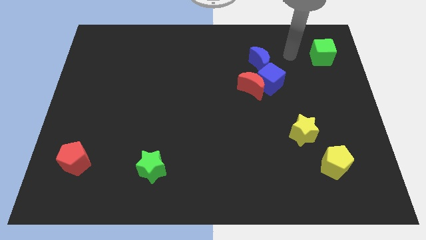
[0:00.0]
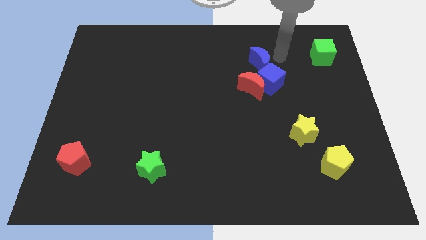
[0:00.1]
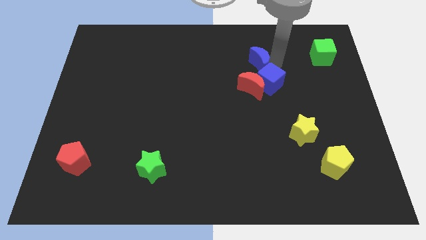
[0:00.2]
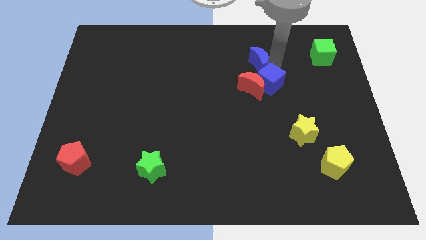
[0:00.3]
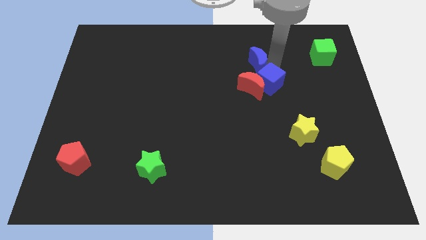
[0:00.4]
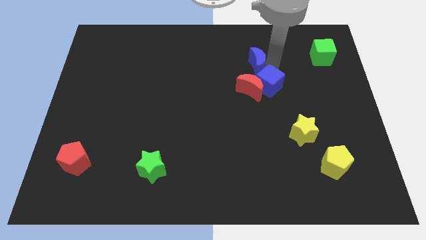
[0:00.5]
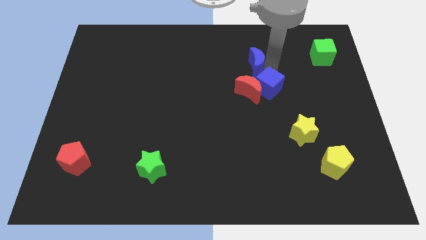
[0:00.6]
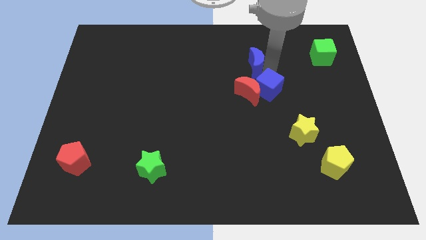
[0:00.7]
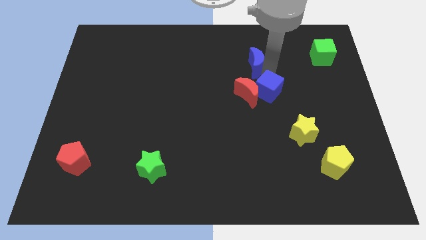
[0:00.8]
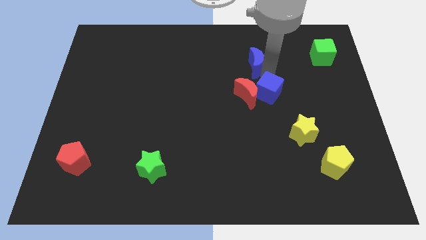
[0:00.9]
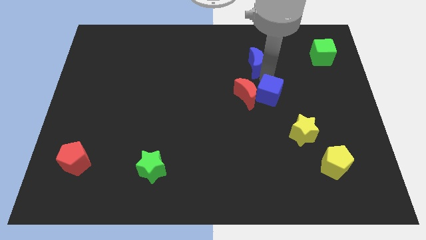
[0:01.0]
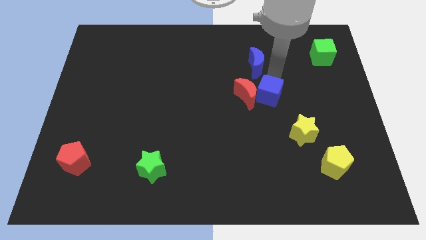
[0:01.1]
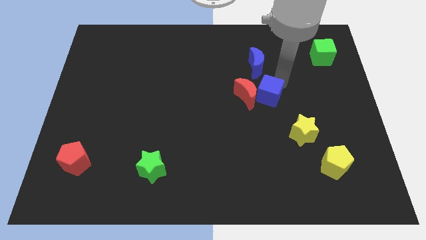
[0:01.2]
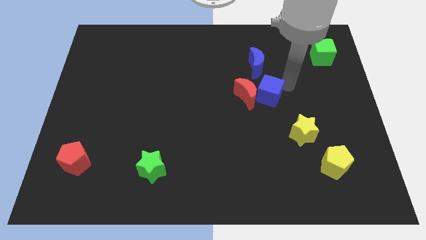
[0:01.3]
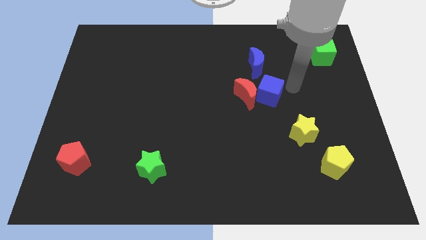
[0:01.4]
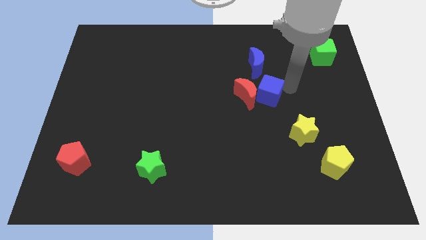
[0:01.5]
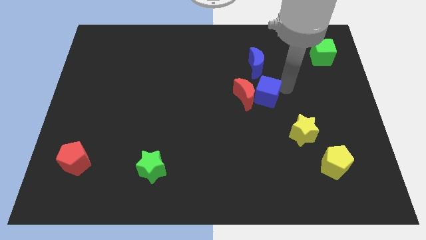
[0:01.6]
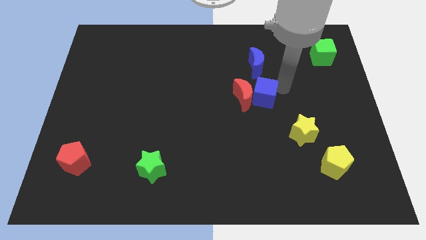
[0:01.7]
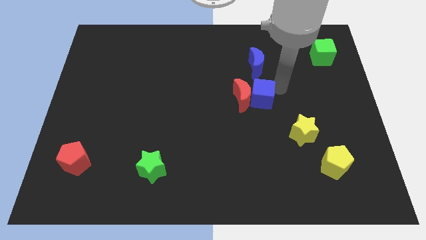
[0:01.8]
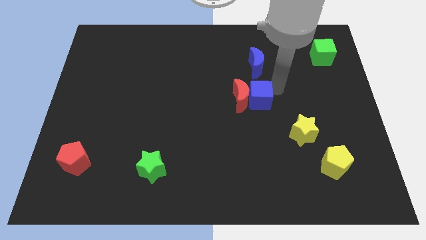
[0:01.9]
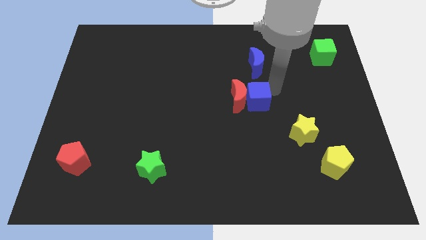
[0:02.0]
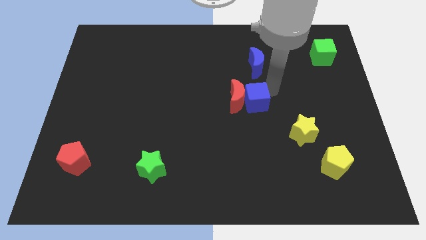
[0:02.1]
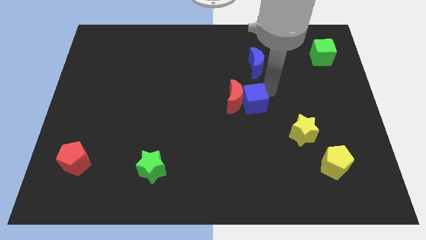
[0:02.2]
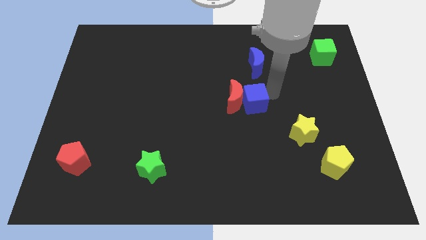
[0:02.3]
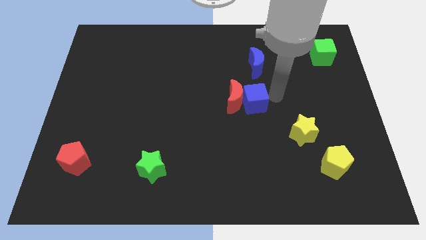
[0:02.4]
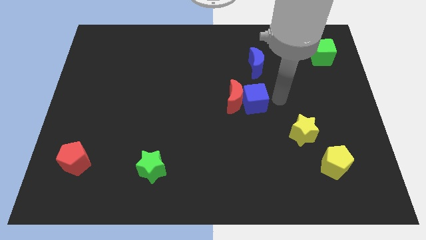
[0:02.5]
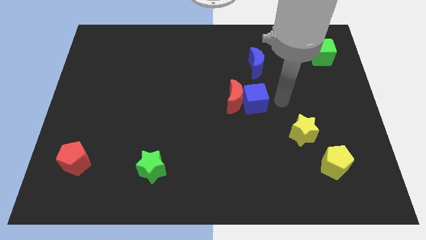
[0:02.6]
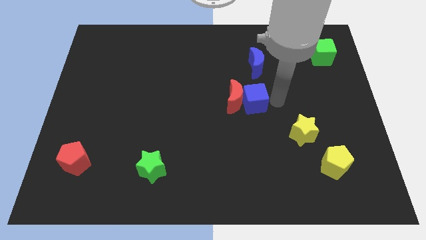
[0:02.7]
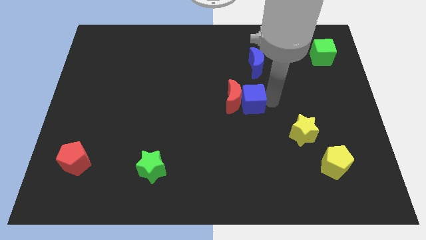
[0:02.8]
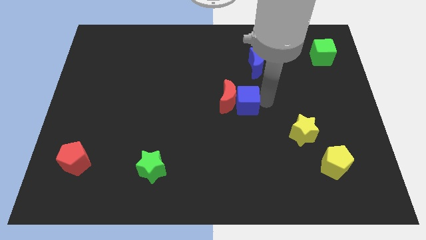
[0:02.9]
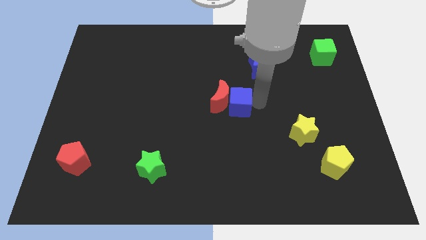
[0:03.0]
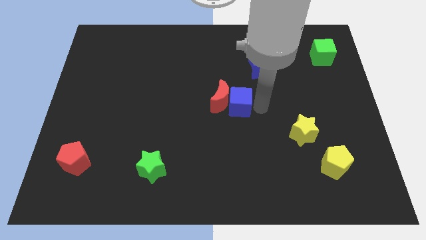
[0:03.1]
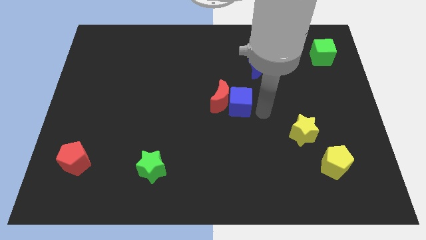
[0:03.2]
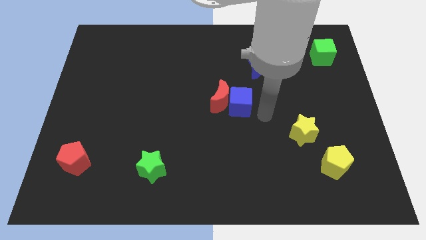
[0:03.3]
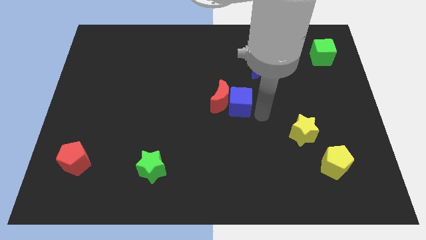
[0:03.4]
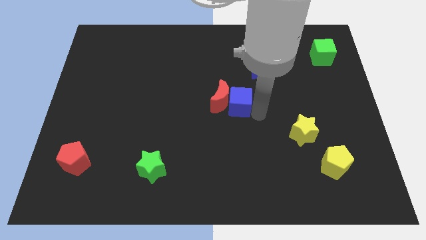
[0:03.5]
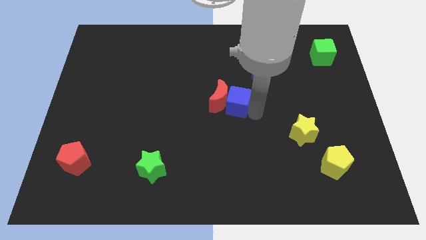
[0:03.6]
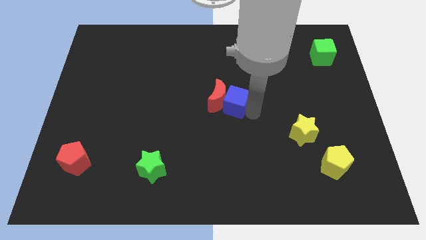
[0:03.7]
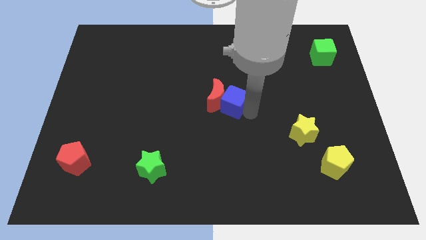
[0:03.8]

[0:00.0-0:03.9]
slightly slide the blue cube to the left

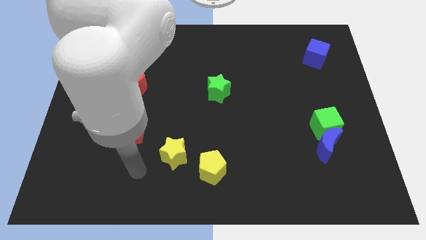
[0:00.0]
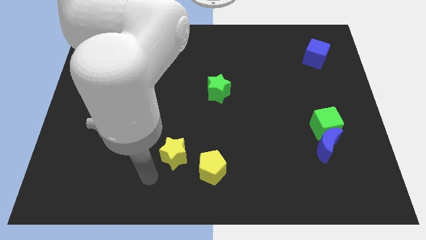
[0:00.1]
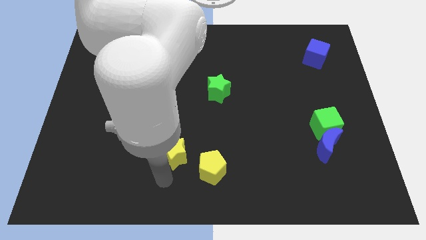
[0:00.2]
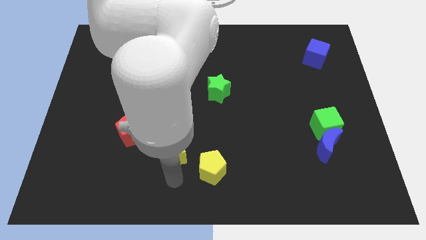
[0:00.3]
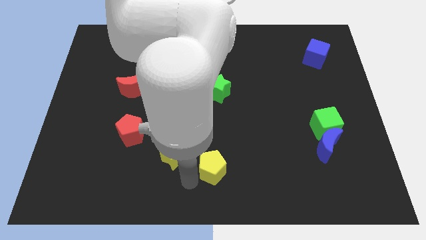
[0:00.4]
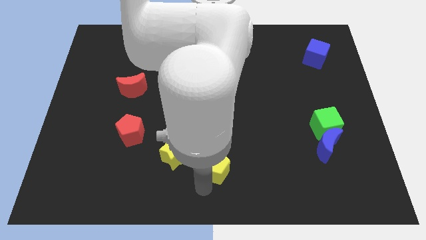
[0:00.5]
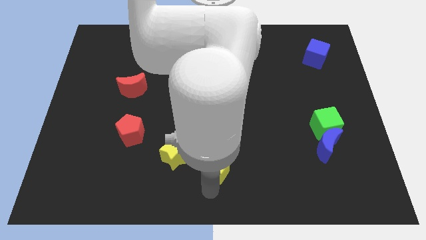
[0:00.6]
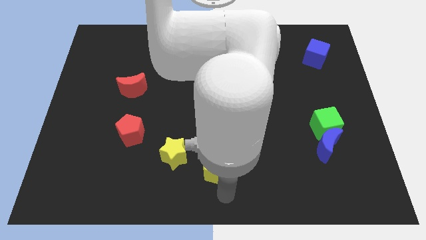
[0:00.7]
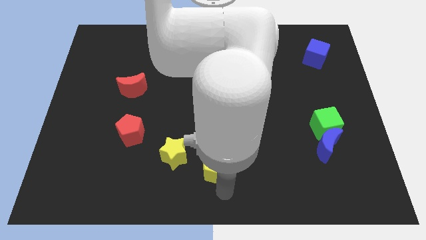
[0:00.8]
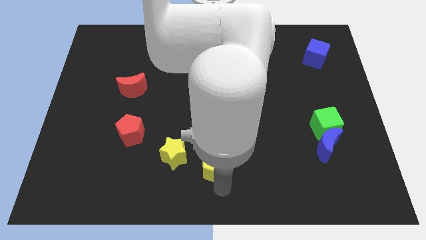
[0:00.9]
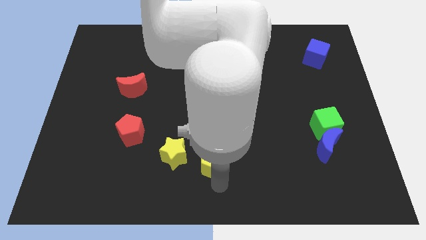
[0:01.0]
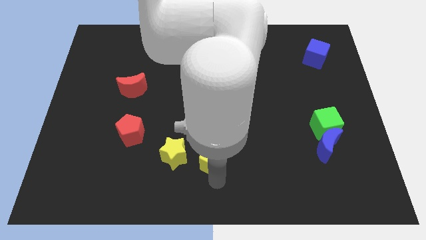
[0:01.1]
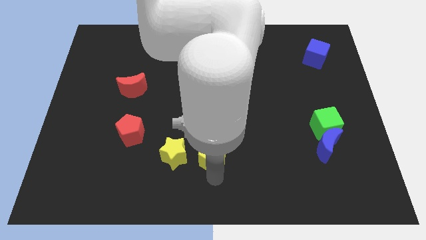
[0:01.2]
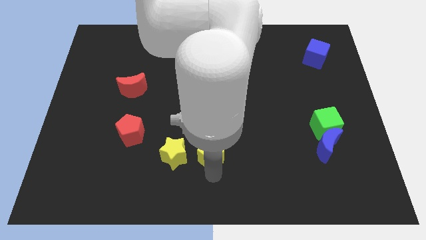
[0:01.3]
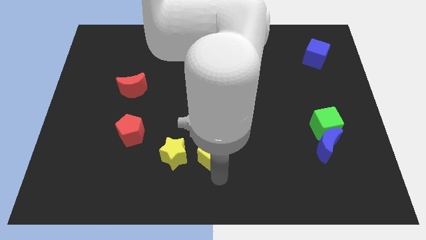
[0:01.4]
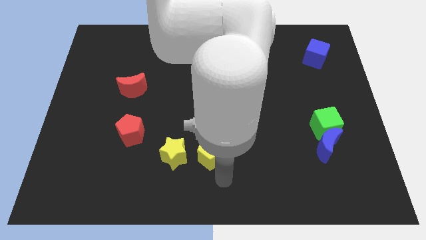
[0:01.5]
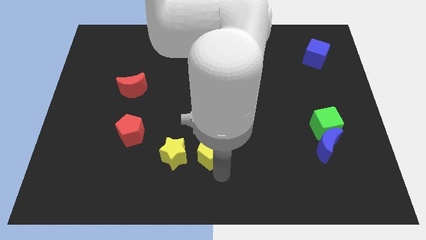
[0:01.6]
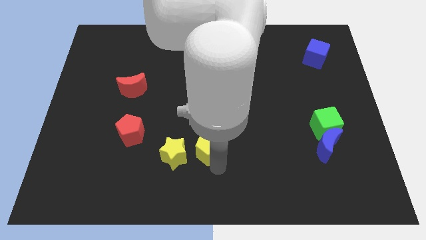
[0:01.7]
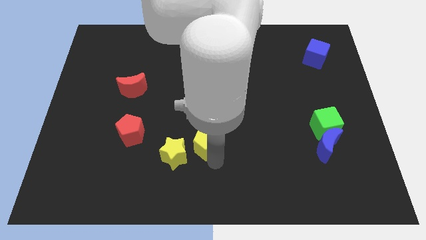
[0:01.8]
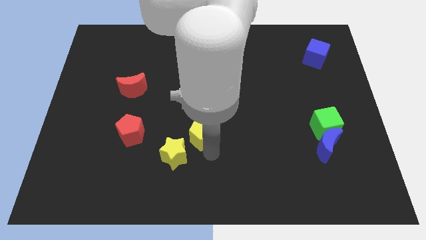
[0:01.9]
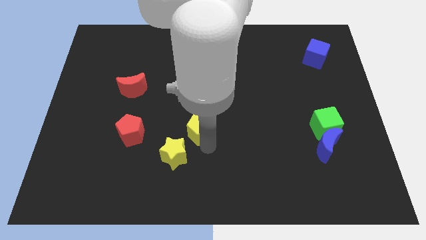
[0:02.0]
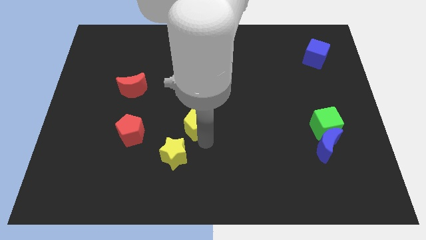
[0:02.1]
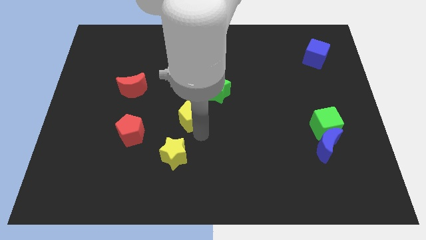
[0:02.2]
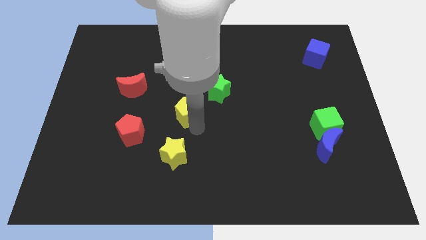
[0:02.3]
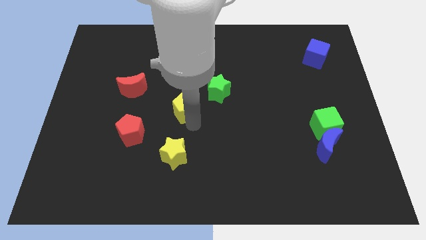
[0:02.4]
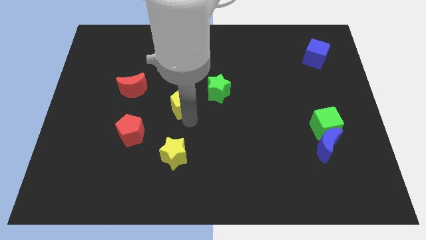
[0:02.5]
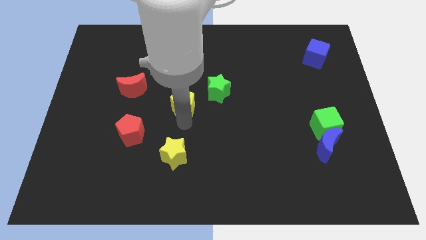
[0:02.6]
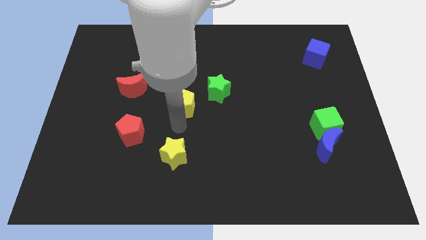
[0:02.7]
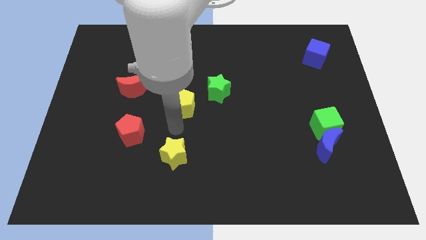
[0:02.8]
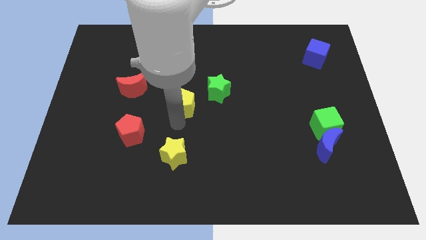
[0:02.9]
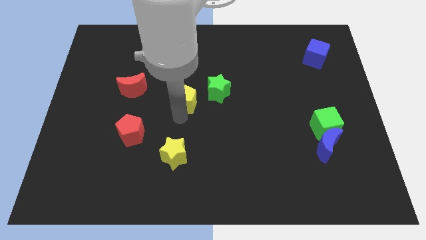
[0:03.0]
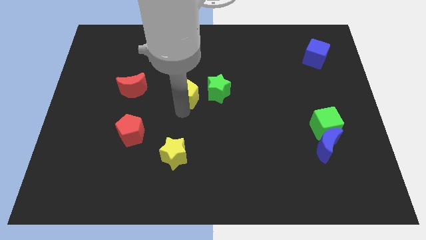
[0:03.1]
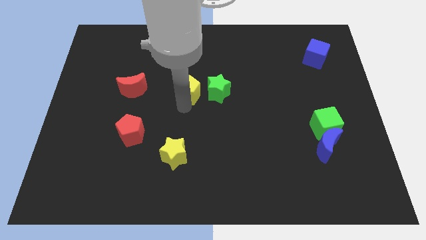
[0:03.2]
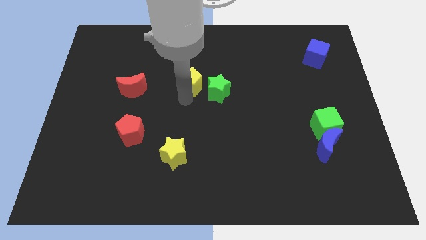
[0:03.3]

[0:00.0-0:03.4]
move the yellow pentagon up

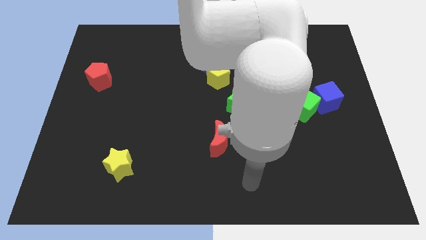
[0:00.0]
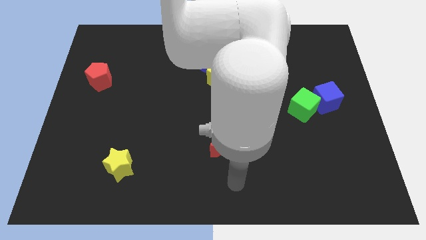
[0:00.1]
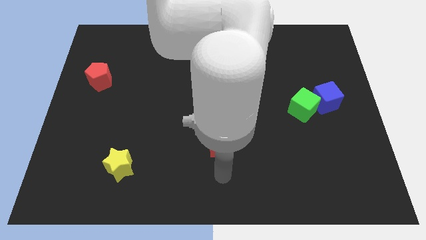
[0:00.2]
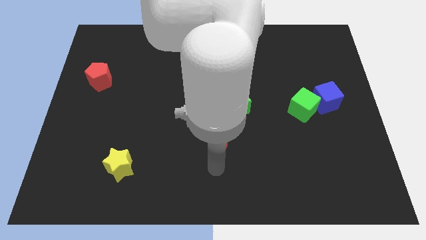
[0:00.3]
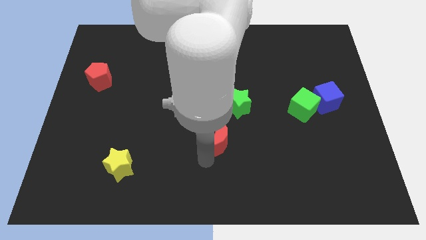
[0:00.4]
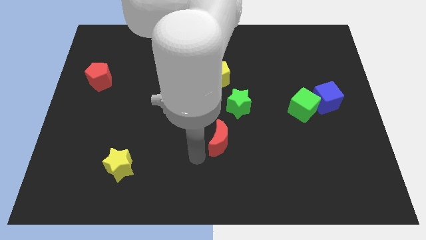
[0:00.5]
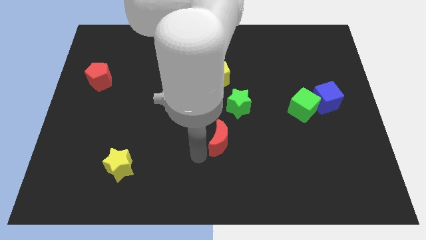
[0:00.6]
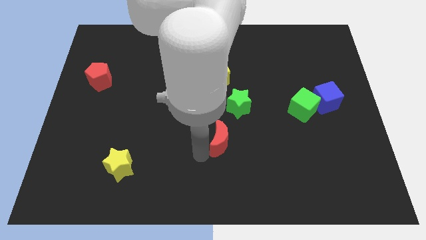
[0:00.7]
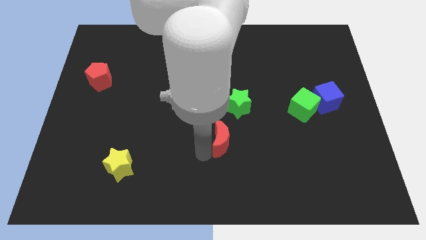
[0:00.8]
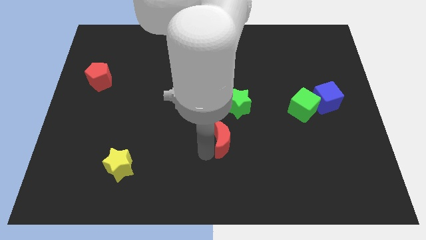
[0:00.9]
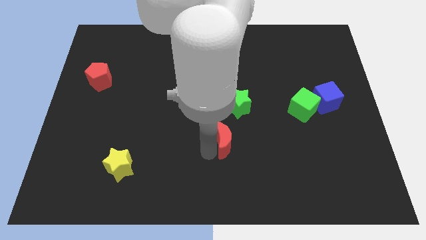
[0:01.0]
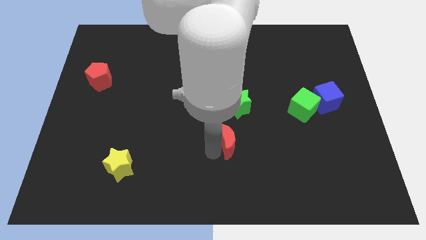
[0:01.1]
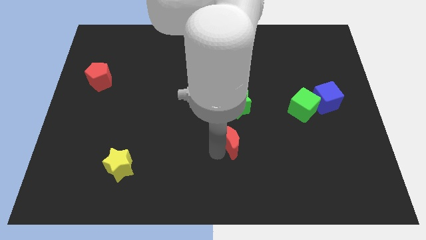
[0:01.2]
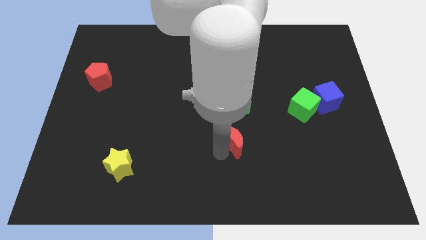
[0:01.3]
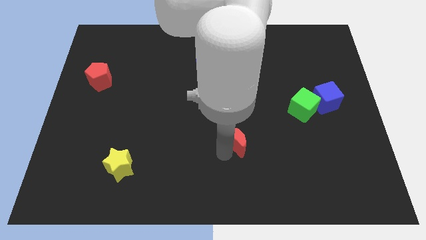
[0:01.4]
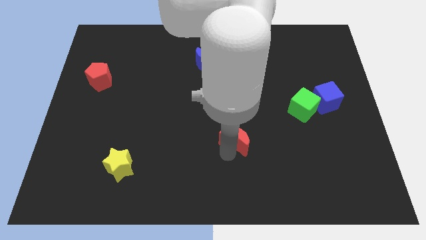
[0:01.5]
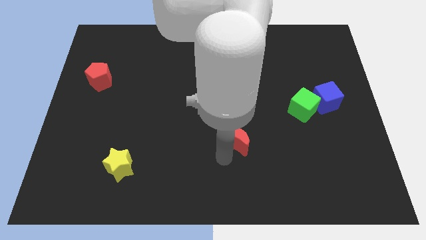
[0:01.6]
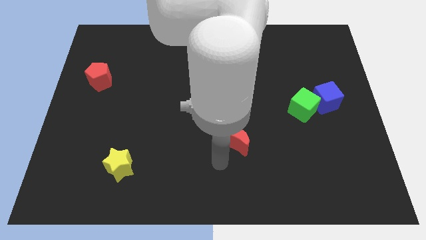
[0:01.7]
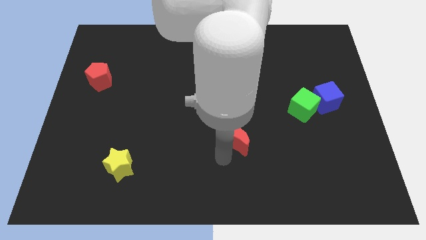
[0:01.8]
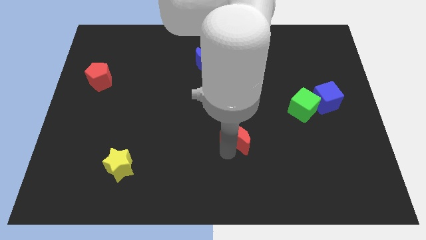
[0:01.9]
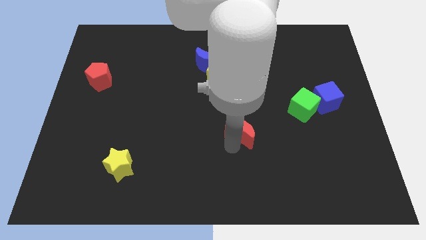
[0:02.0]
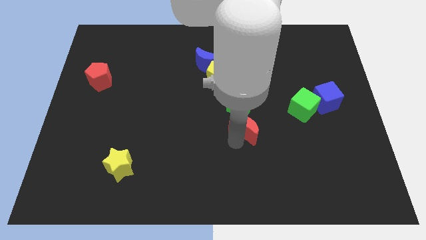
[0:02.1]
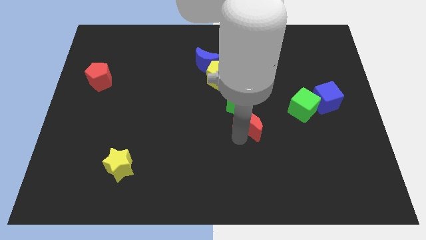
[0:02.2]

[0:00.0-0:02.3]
slide the red moon somewhat up and then right
